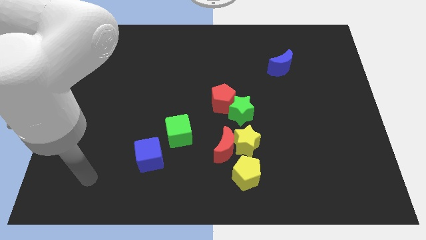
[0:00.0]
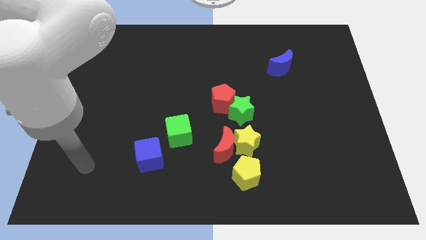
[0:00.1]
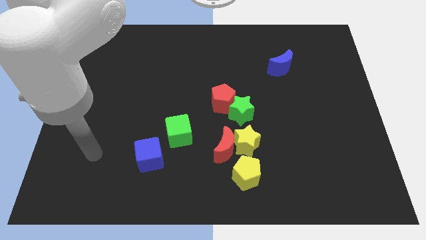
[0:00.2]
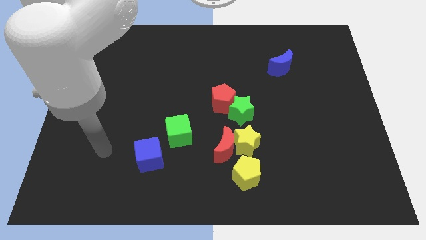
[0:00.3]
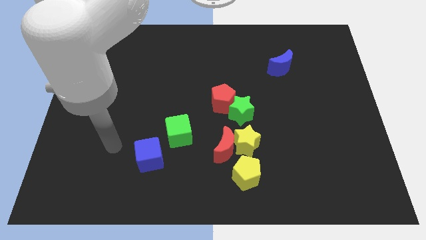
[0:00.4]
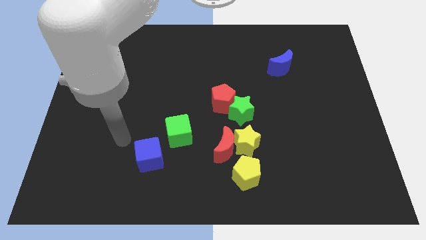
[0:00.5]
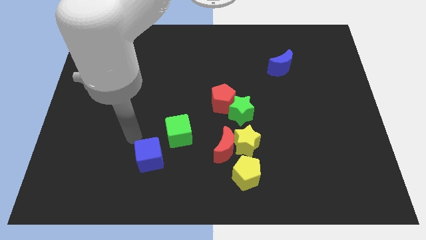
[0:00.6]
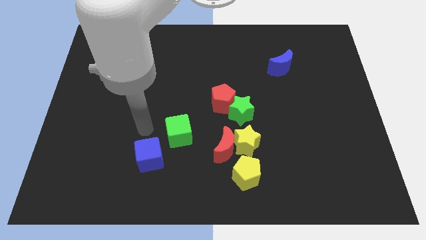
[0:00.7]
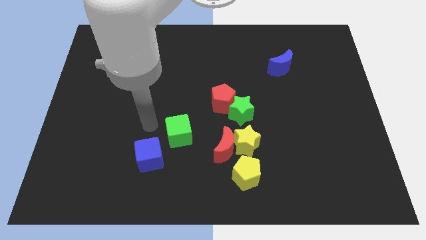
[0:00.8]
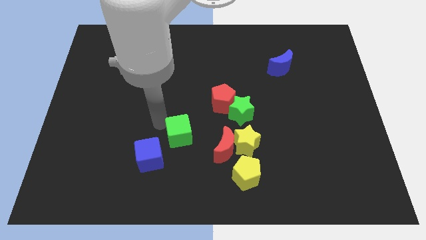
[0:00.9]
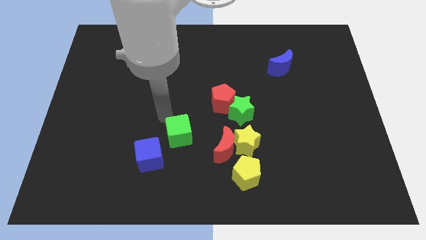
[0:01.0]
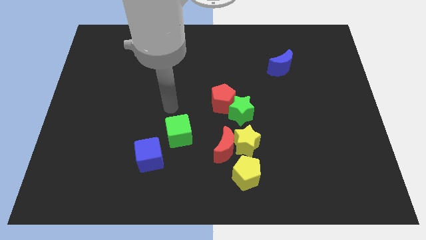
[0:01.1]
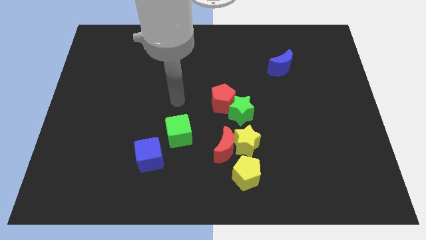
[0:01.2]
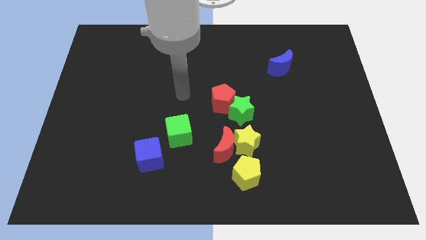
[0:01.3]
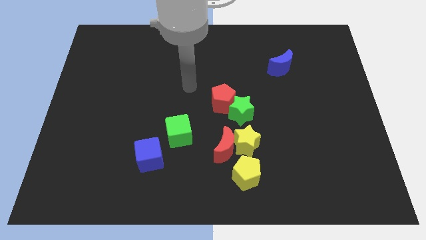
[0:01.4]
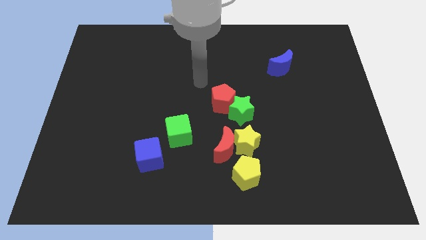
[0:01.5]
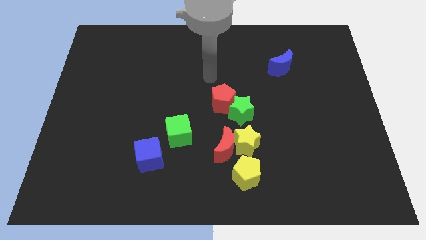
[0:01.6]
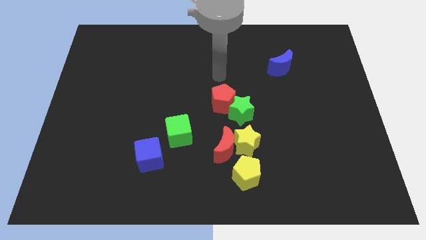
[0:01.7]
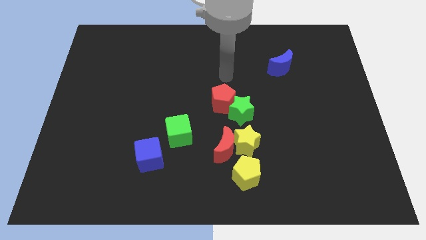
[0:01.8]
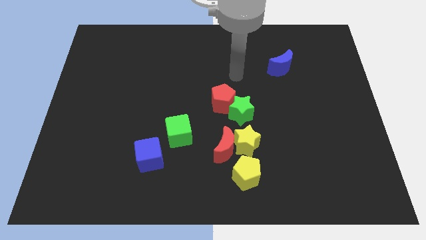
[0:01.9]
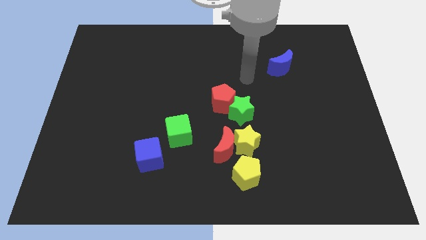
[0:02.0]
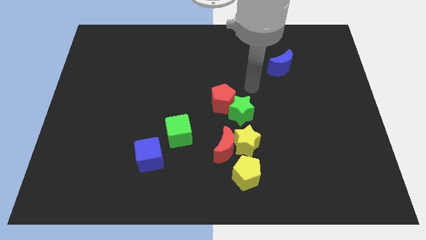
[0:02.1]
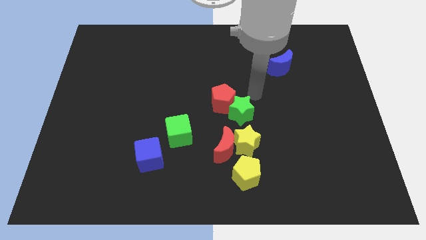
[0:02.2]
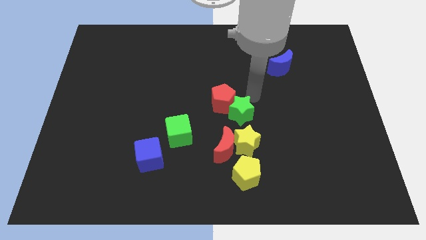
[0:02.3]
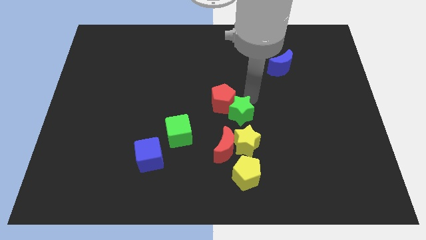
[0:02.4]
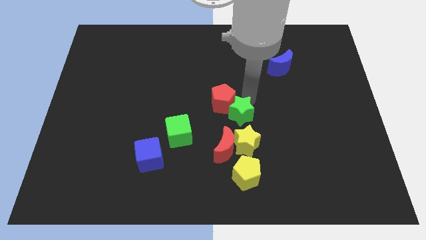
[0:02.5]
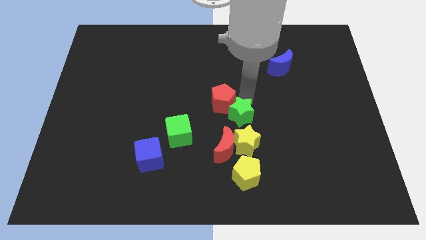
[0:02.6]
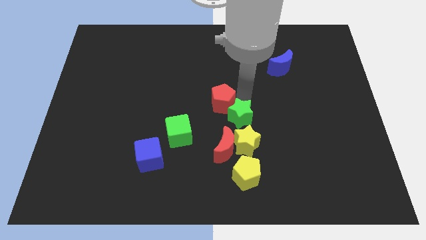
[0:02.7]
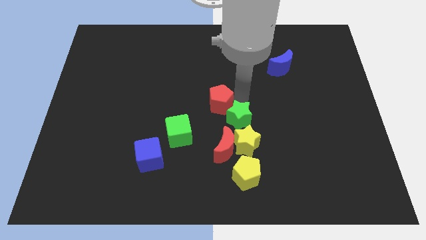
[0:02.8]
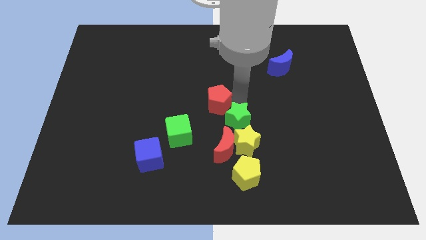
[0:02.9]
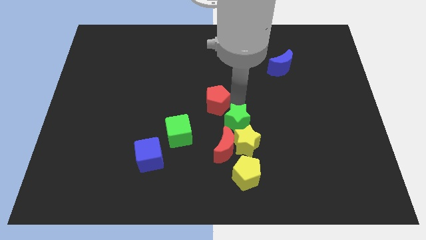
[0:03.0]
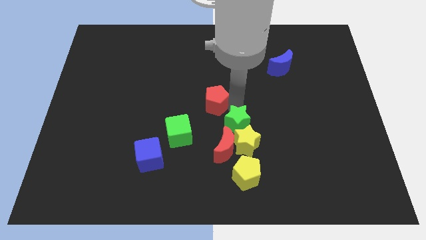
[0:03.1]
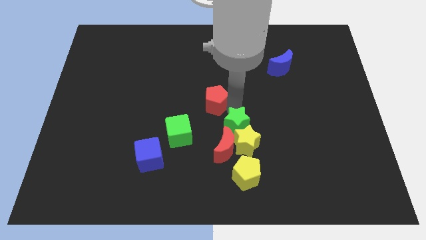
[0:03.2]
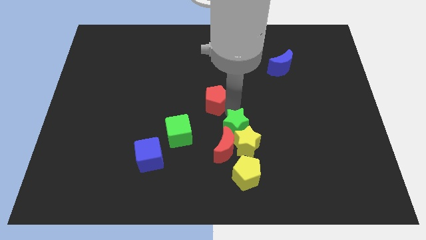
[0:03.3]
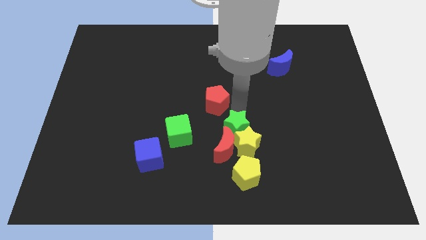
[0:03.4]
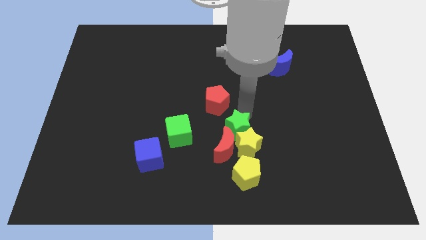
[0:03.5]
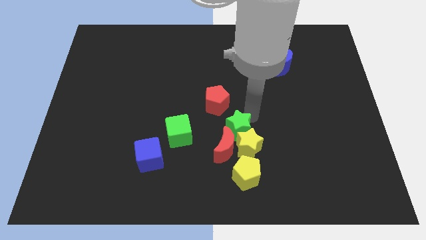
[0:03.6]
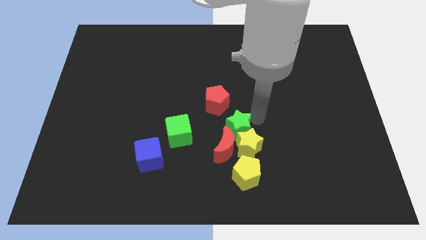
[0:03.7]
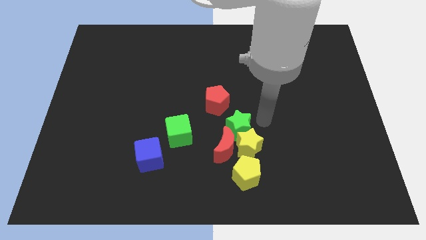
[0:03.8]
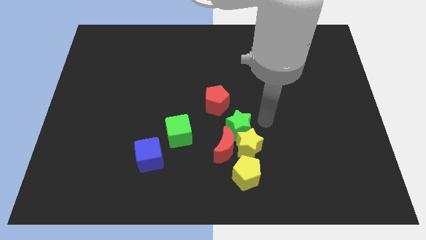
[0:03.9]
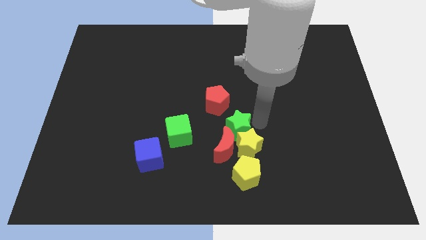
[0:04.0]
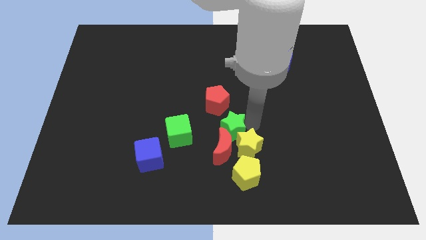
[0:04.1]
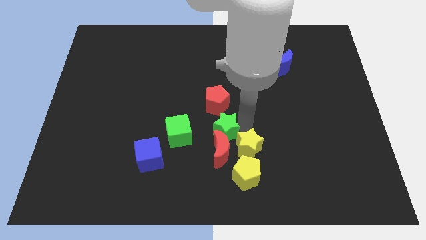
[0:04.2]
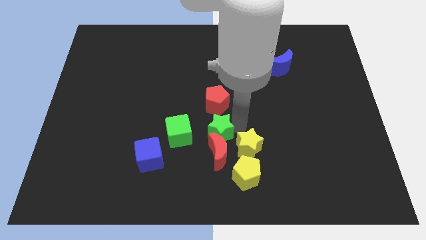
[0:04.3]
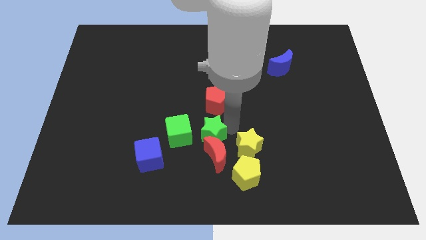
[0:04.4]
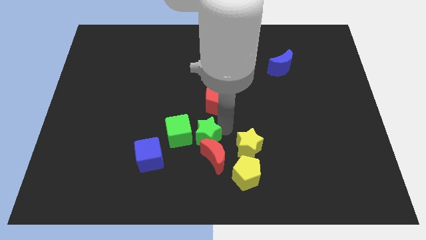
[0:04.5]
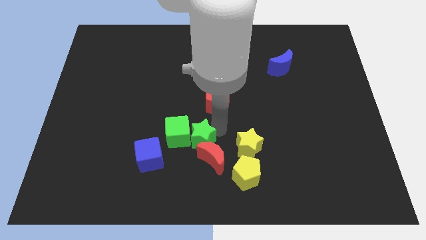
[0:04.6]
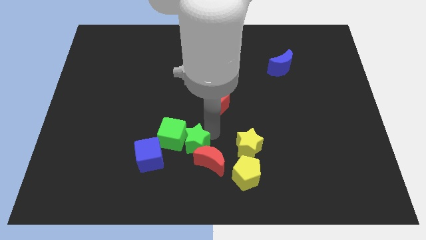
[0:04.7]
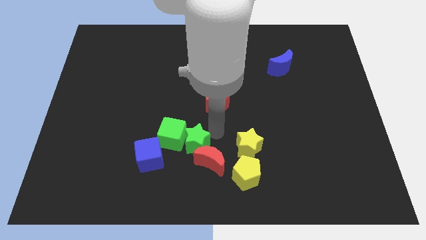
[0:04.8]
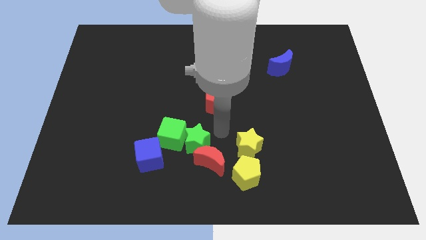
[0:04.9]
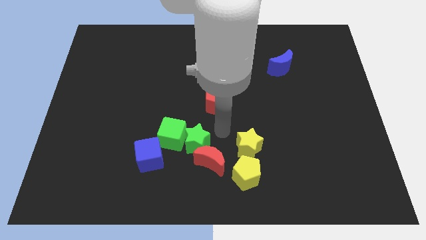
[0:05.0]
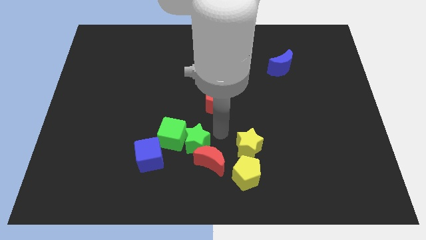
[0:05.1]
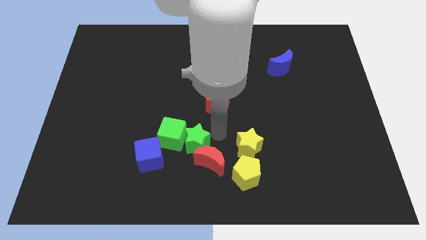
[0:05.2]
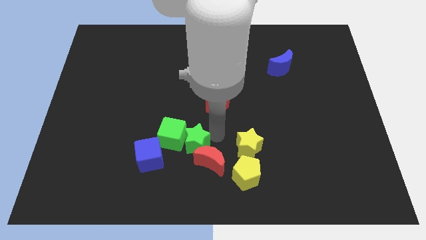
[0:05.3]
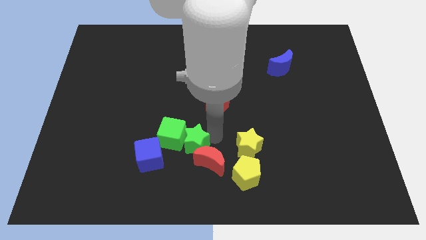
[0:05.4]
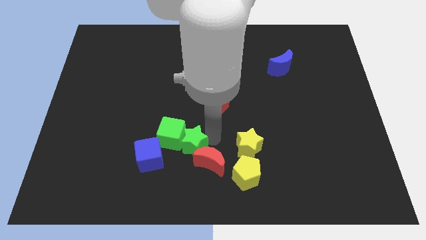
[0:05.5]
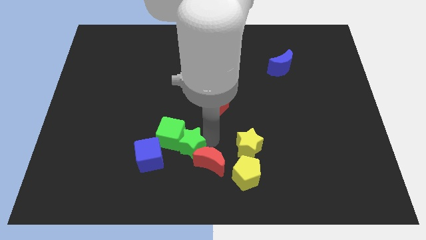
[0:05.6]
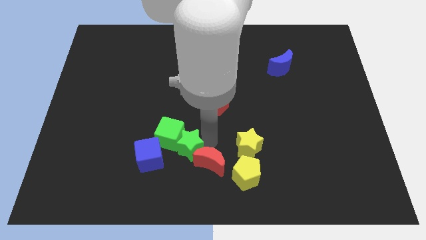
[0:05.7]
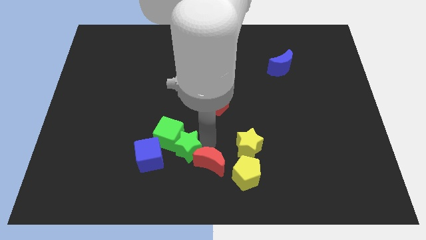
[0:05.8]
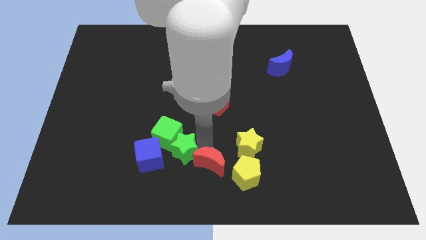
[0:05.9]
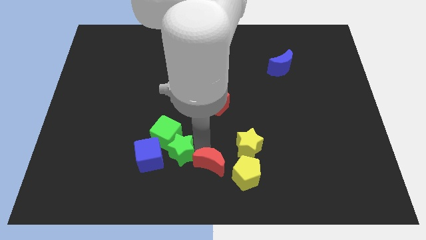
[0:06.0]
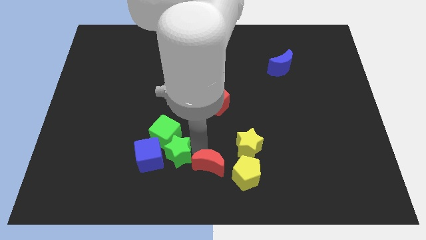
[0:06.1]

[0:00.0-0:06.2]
move the green star to the blue cube

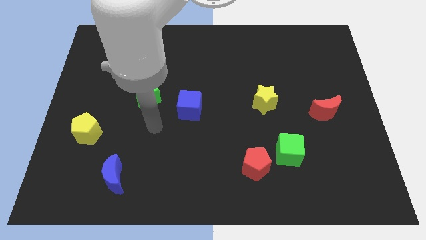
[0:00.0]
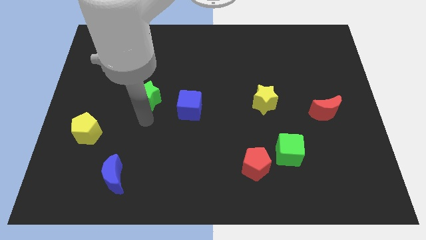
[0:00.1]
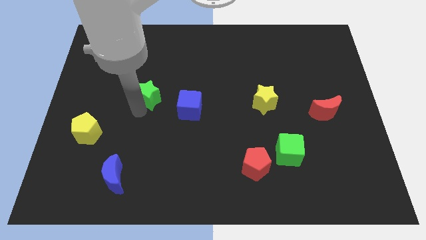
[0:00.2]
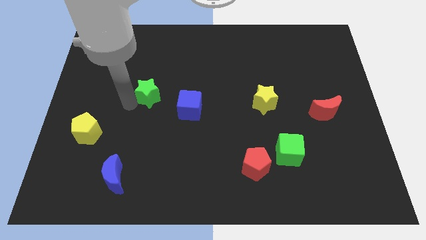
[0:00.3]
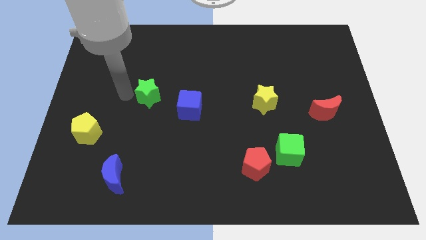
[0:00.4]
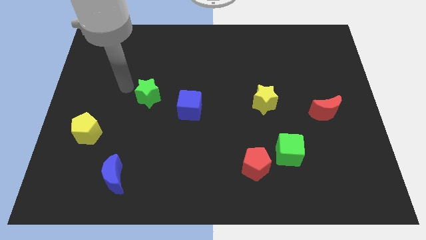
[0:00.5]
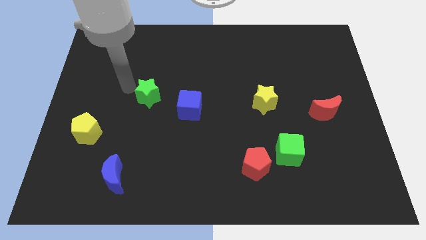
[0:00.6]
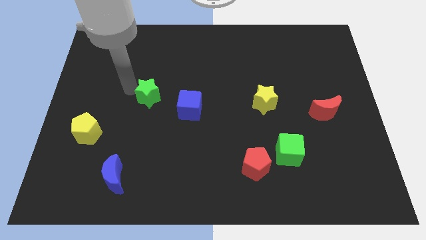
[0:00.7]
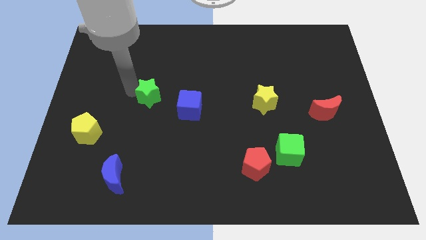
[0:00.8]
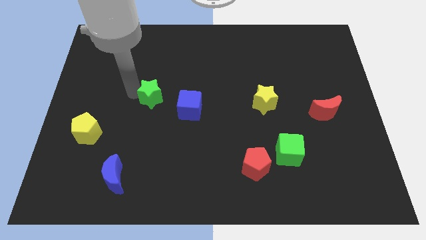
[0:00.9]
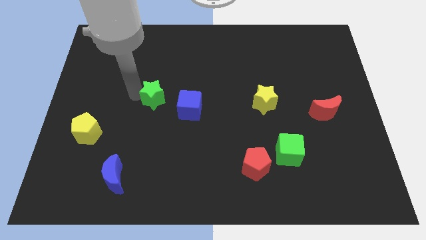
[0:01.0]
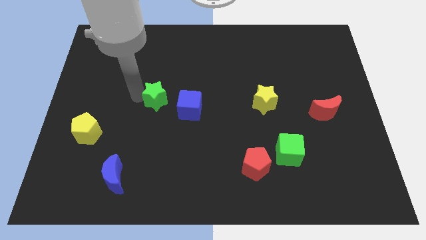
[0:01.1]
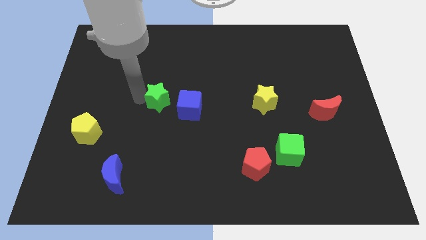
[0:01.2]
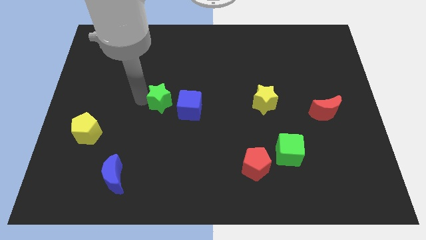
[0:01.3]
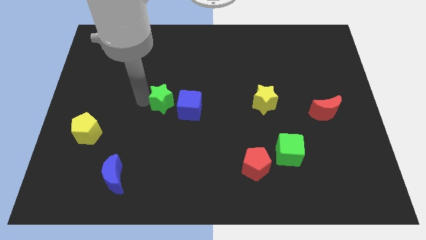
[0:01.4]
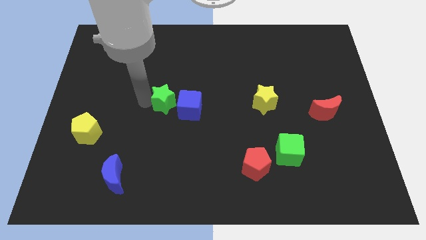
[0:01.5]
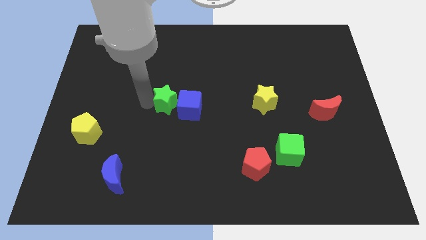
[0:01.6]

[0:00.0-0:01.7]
move the green star towards the blue cube
